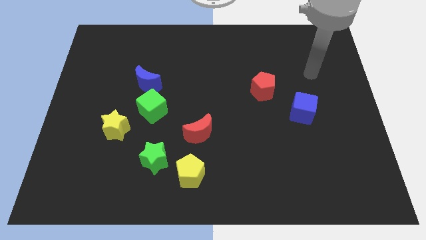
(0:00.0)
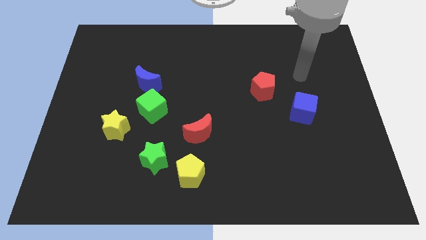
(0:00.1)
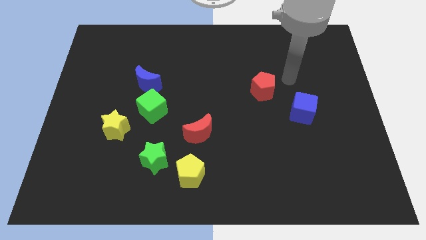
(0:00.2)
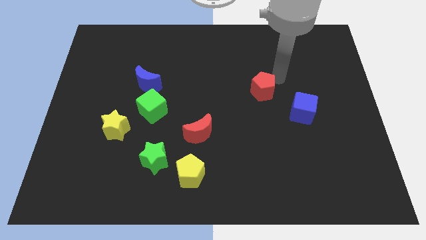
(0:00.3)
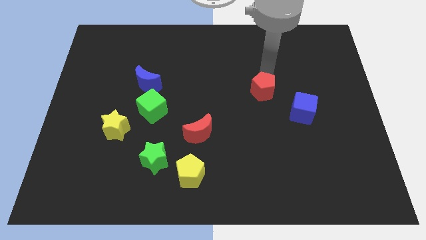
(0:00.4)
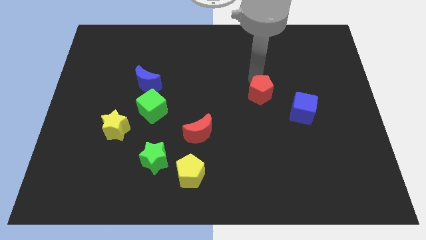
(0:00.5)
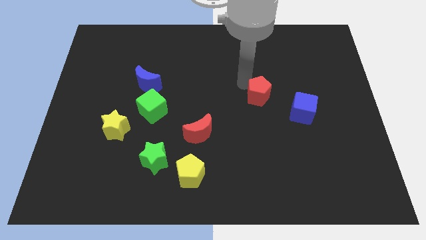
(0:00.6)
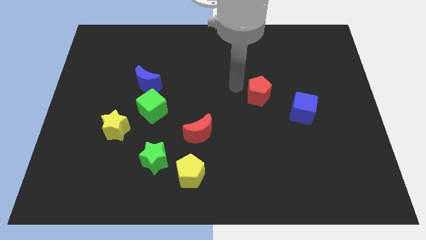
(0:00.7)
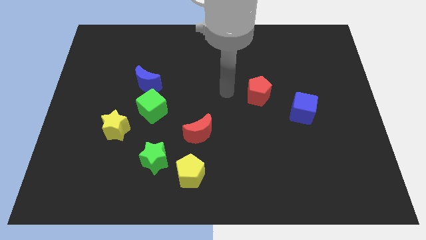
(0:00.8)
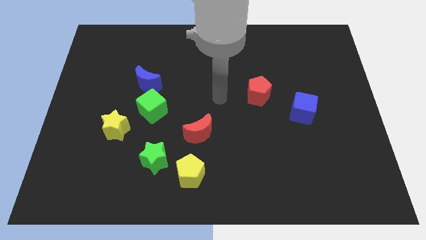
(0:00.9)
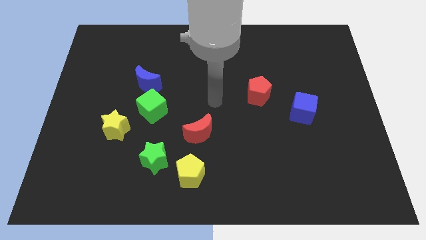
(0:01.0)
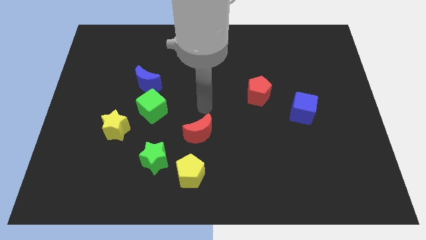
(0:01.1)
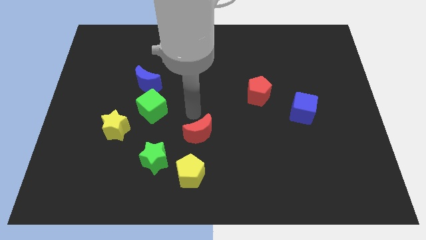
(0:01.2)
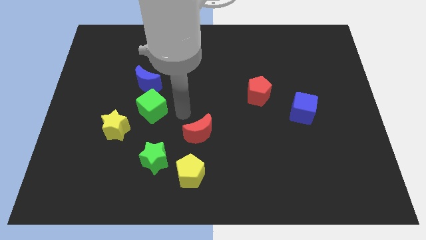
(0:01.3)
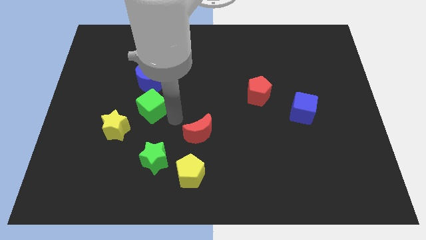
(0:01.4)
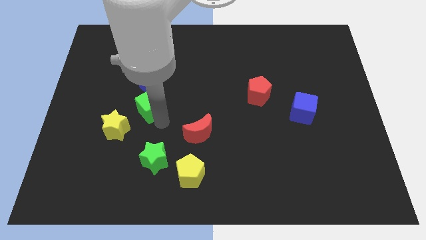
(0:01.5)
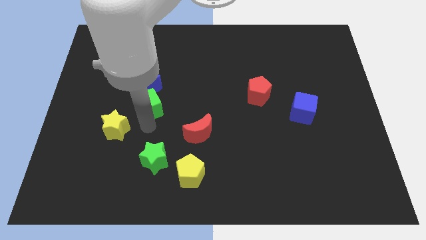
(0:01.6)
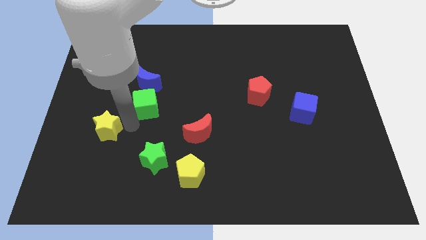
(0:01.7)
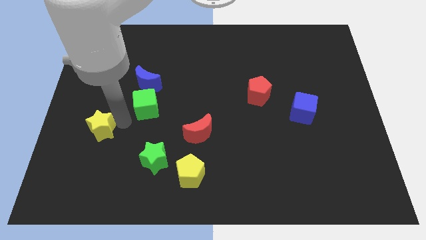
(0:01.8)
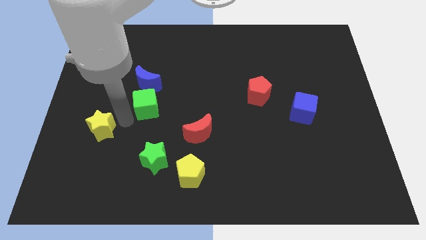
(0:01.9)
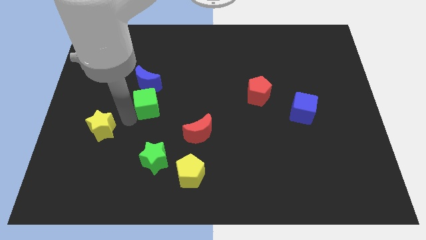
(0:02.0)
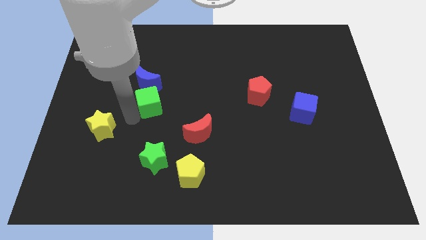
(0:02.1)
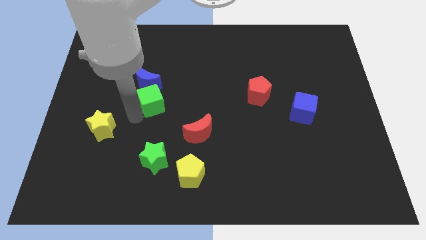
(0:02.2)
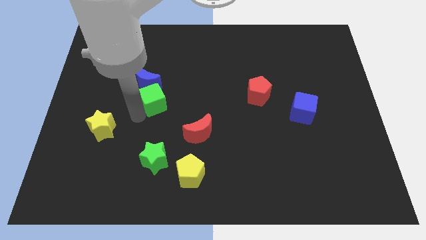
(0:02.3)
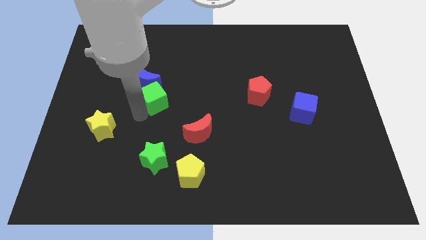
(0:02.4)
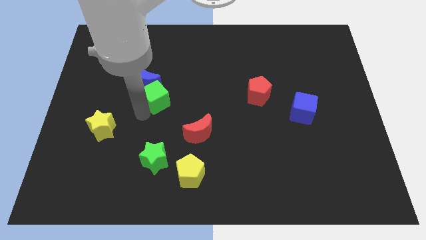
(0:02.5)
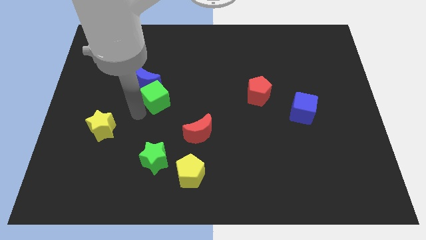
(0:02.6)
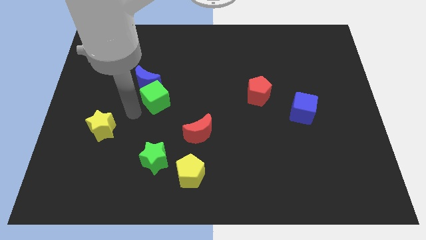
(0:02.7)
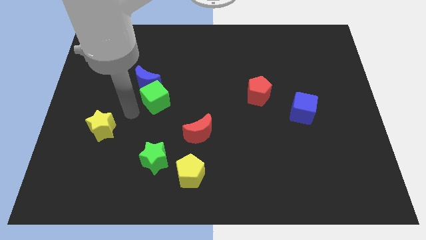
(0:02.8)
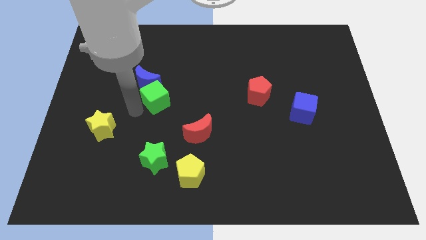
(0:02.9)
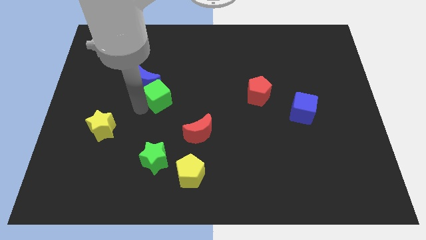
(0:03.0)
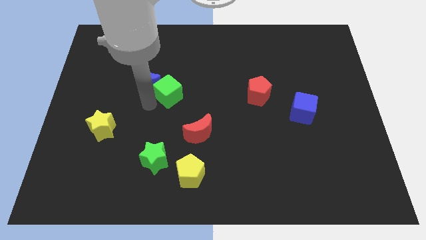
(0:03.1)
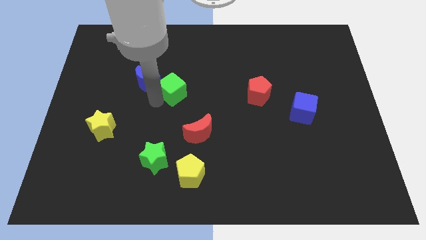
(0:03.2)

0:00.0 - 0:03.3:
move the green cube upwards and then right a little bit

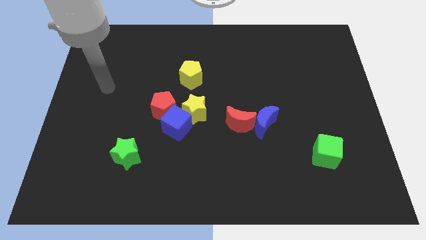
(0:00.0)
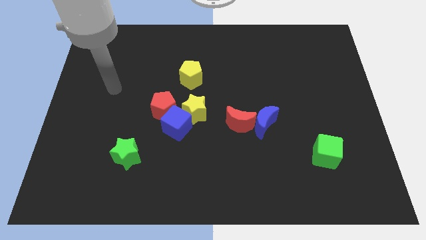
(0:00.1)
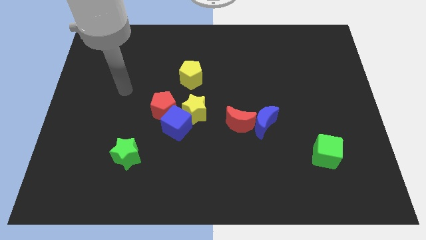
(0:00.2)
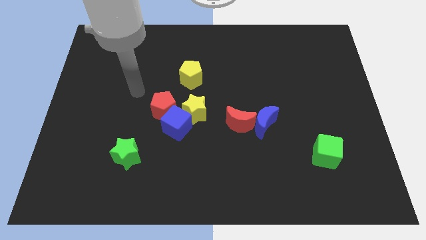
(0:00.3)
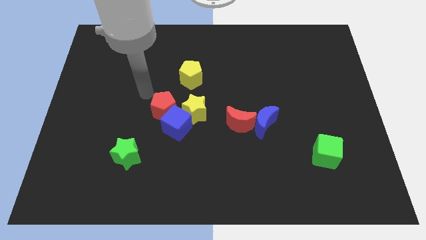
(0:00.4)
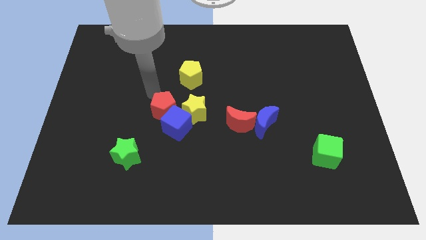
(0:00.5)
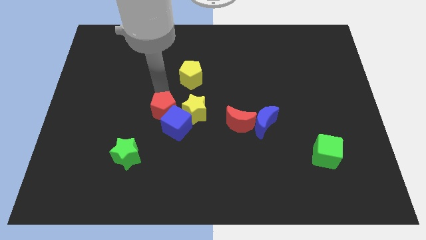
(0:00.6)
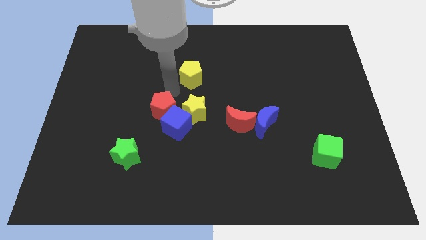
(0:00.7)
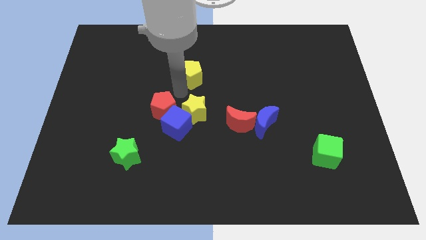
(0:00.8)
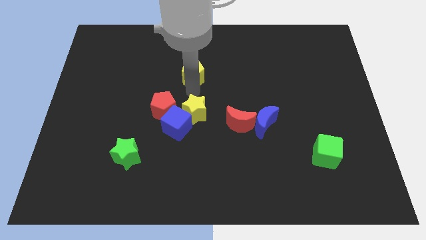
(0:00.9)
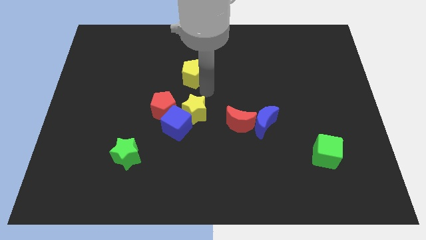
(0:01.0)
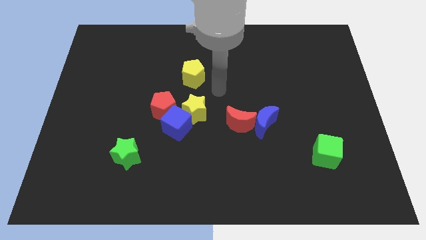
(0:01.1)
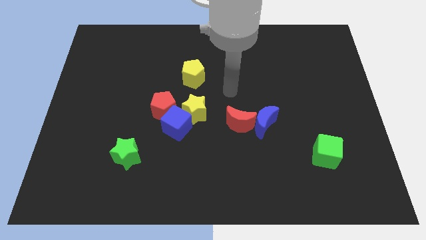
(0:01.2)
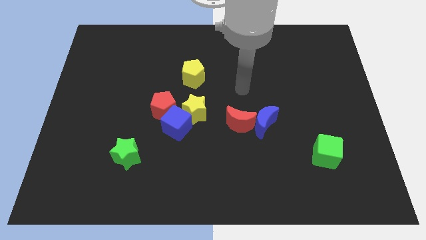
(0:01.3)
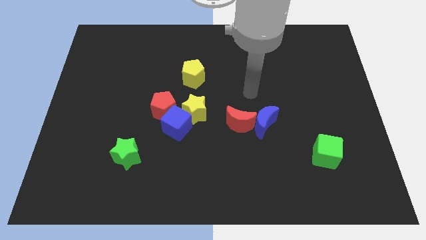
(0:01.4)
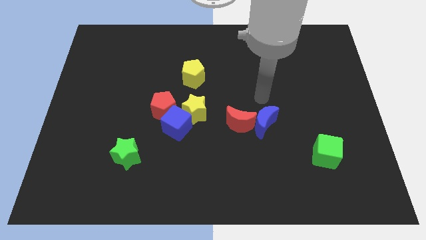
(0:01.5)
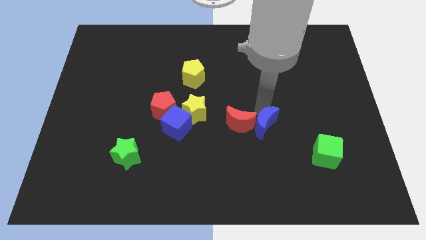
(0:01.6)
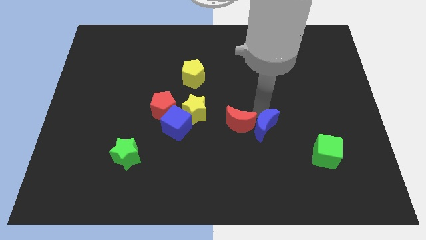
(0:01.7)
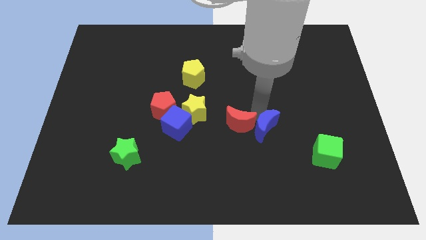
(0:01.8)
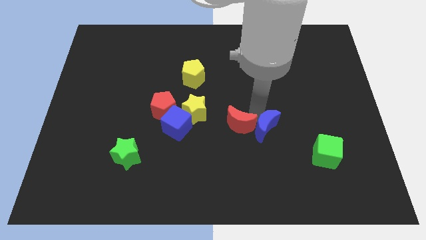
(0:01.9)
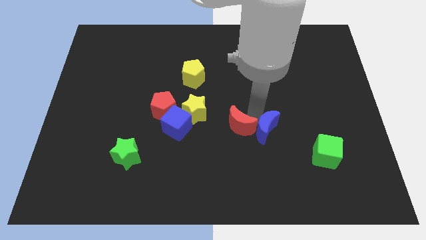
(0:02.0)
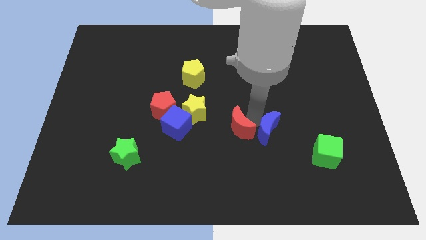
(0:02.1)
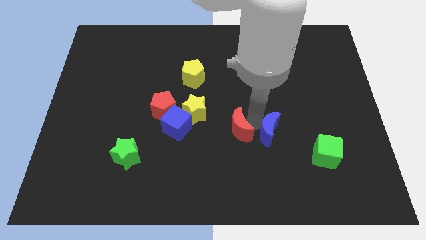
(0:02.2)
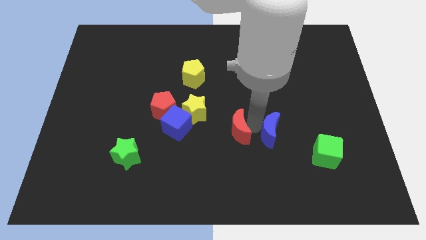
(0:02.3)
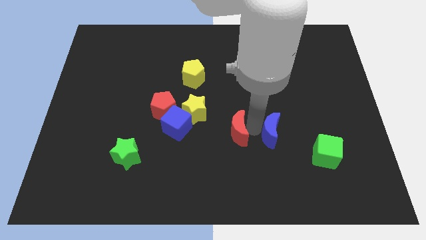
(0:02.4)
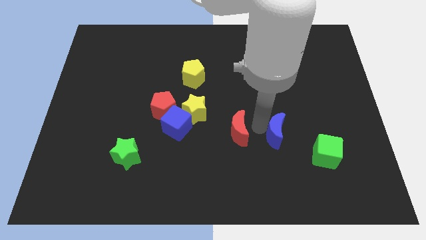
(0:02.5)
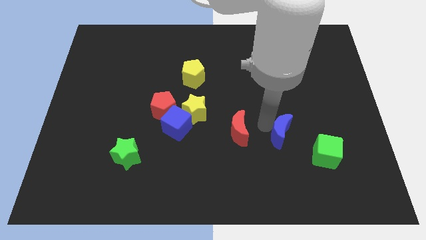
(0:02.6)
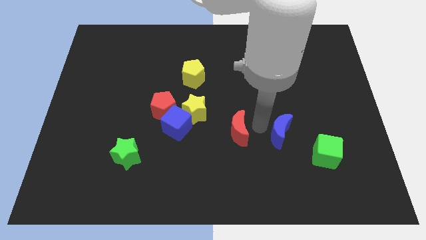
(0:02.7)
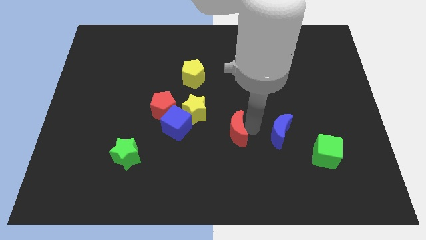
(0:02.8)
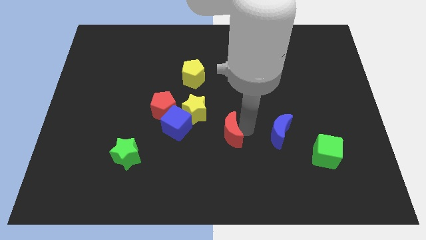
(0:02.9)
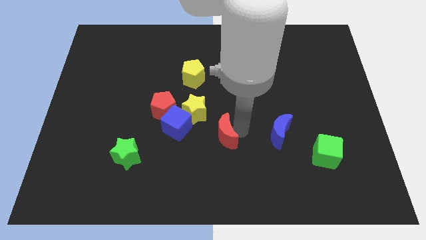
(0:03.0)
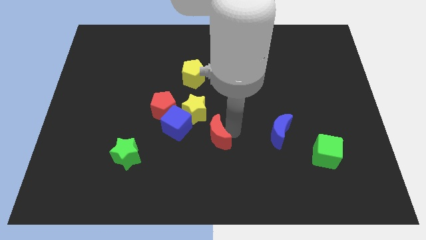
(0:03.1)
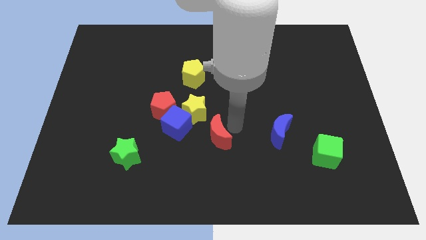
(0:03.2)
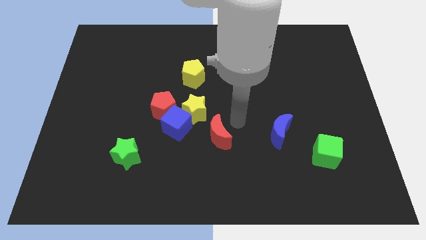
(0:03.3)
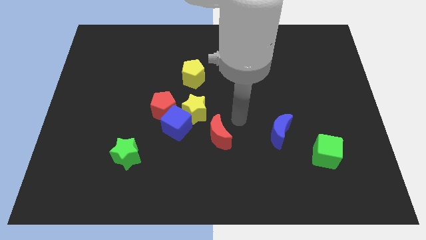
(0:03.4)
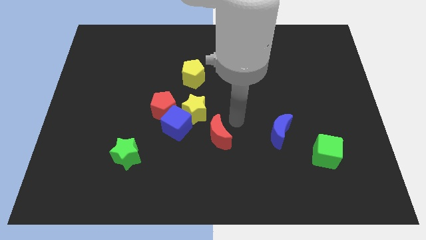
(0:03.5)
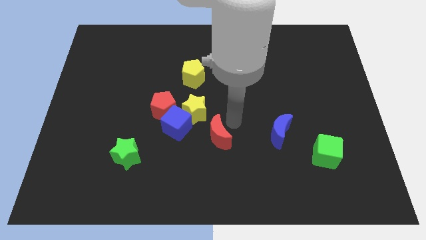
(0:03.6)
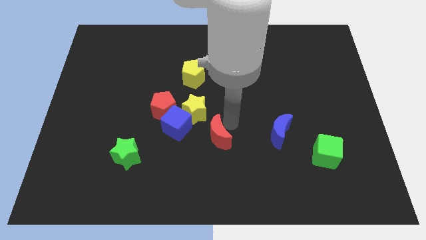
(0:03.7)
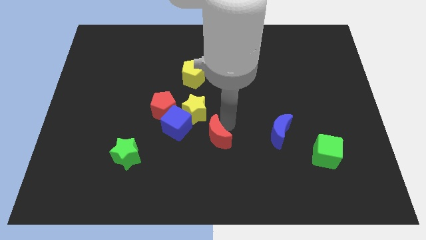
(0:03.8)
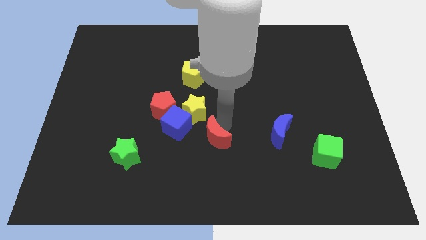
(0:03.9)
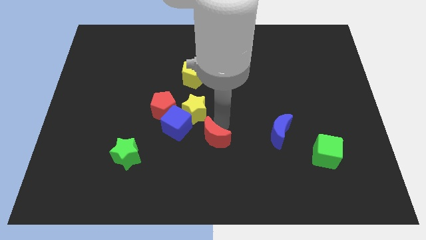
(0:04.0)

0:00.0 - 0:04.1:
slightly push the red moon diagonally down and to the left

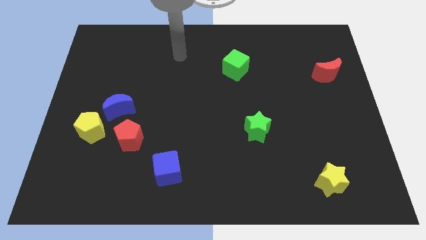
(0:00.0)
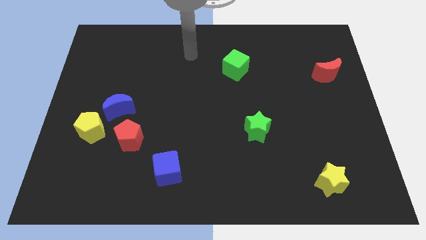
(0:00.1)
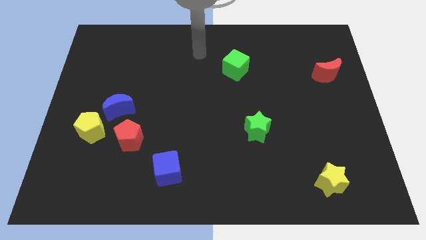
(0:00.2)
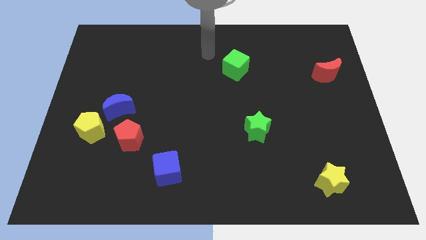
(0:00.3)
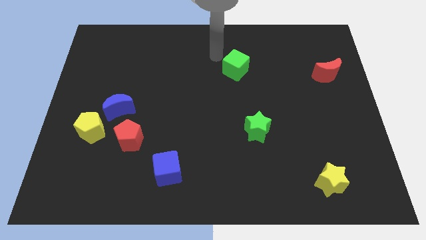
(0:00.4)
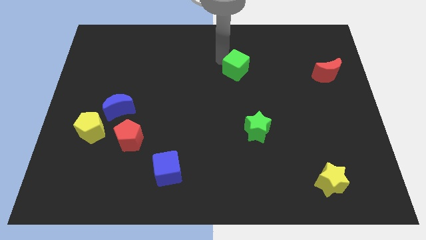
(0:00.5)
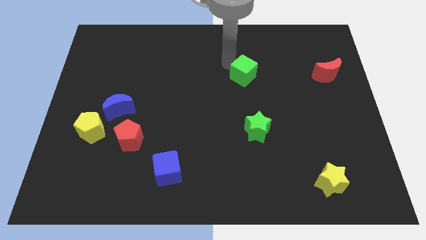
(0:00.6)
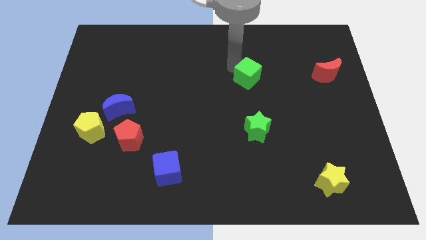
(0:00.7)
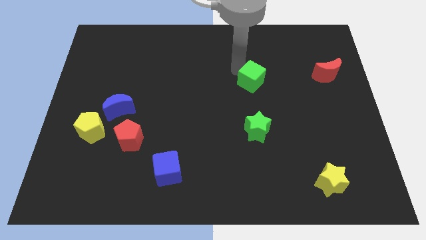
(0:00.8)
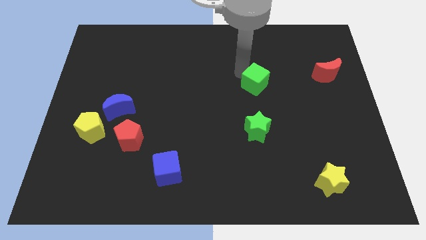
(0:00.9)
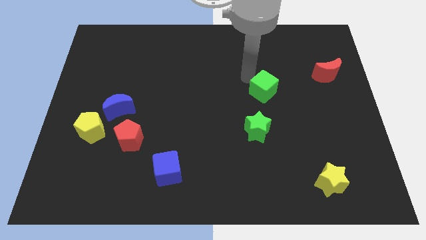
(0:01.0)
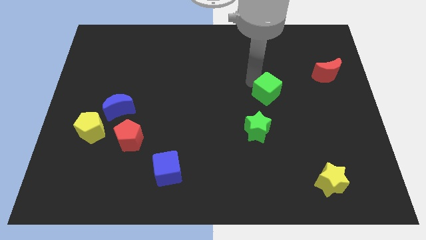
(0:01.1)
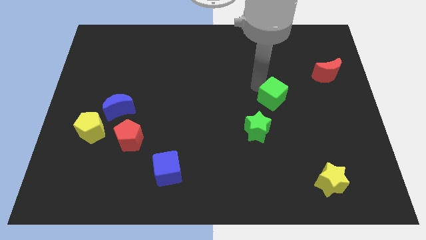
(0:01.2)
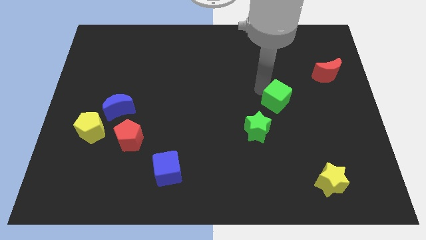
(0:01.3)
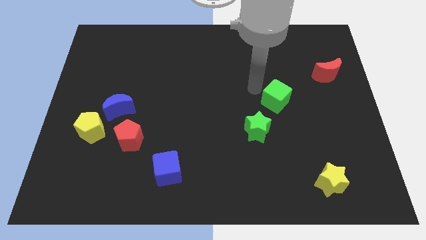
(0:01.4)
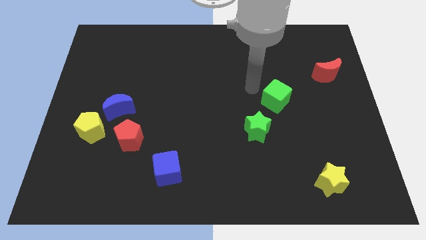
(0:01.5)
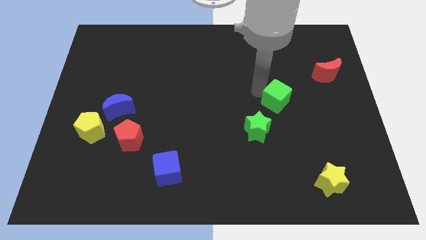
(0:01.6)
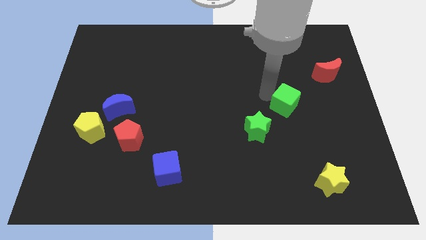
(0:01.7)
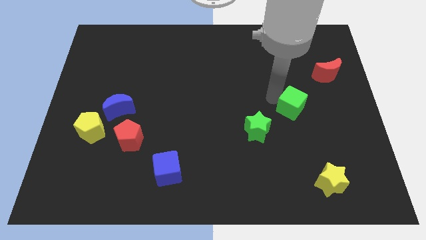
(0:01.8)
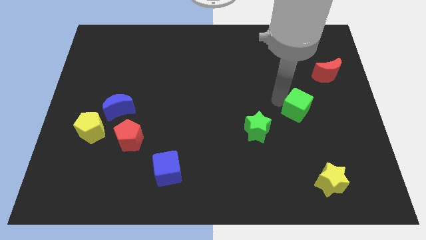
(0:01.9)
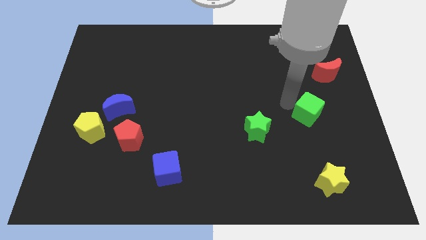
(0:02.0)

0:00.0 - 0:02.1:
push the green cube downwards and then to the right
